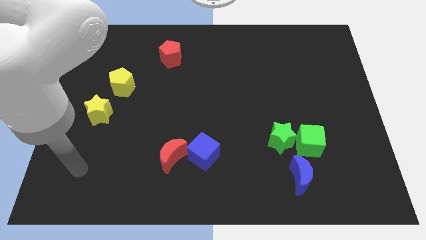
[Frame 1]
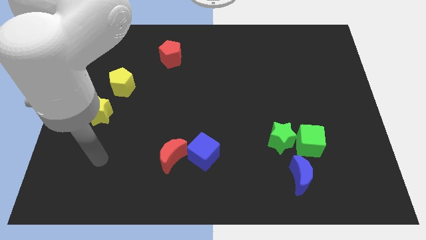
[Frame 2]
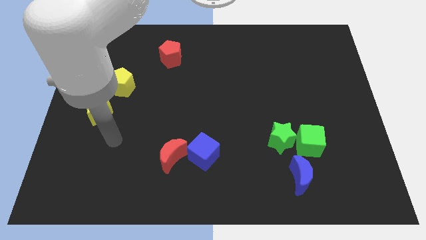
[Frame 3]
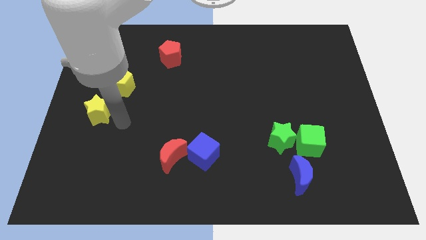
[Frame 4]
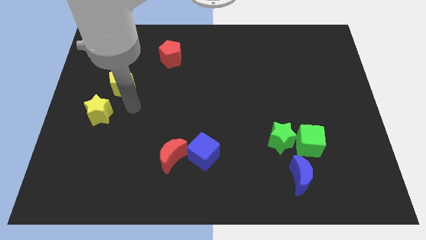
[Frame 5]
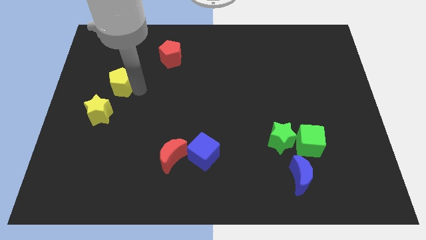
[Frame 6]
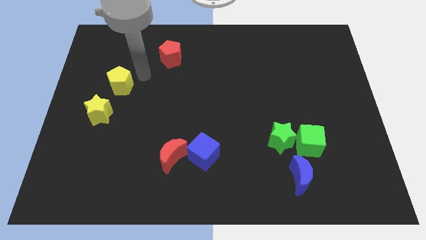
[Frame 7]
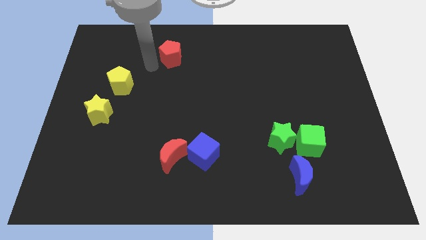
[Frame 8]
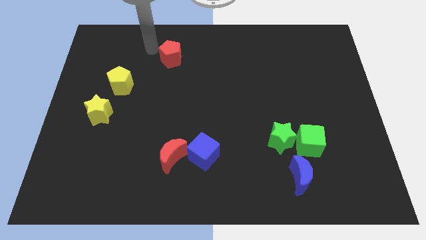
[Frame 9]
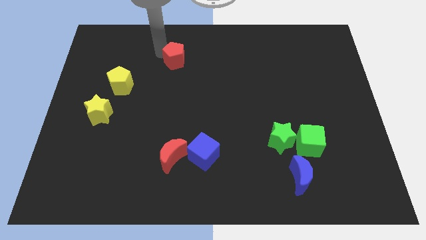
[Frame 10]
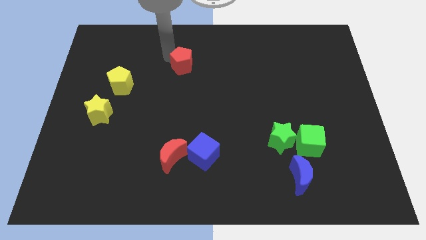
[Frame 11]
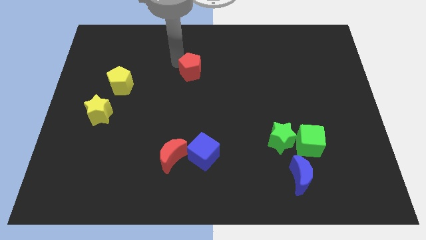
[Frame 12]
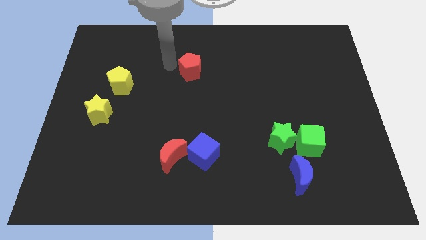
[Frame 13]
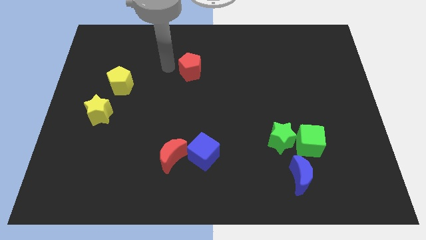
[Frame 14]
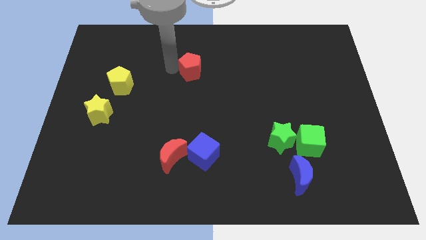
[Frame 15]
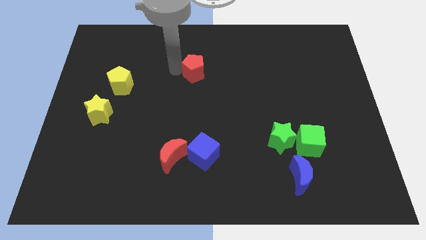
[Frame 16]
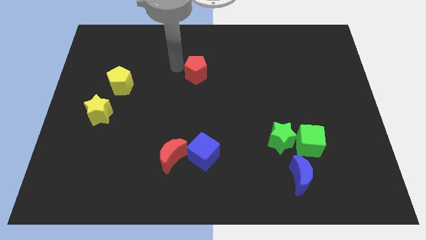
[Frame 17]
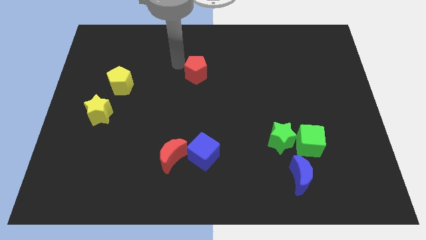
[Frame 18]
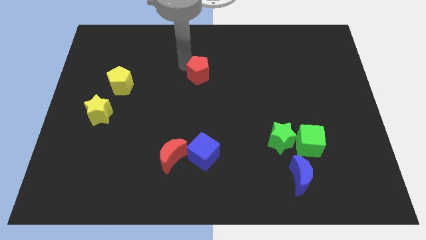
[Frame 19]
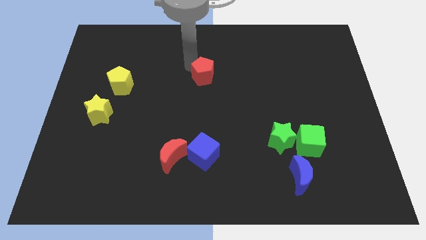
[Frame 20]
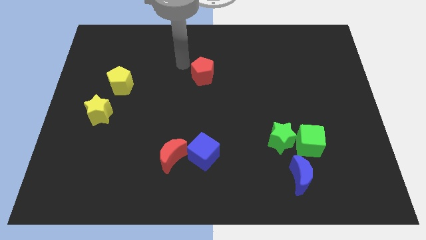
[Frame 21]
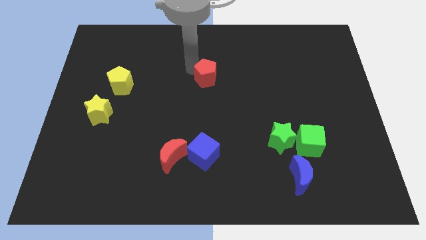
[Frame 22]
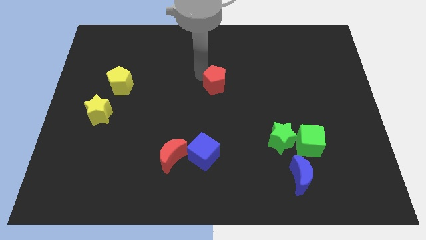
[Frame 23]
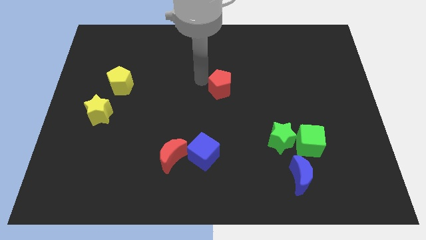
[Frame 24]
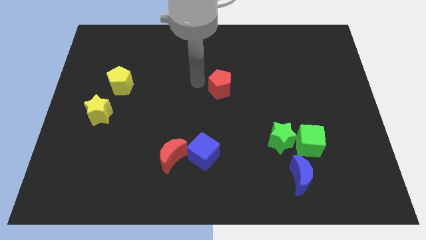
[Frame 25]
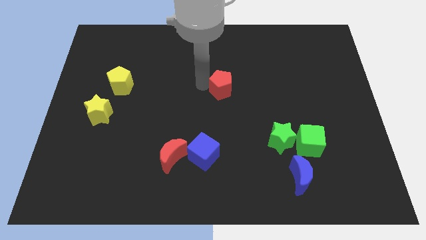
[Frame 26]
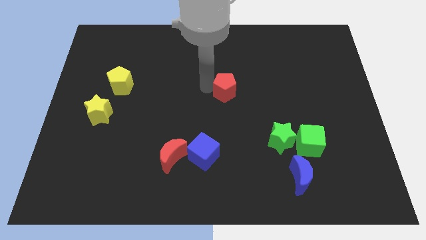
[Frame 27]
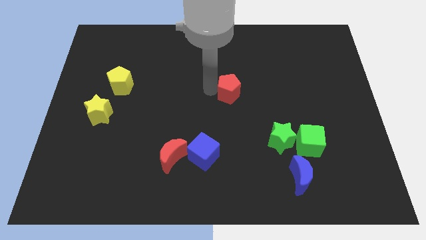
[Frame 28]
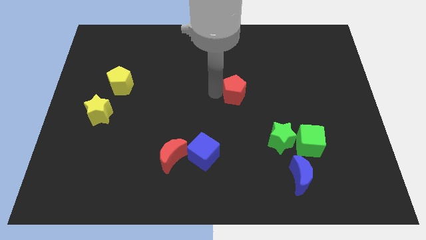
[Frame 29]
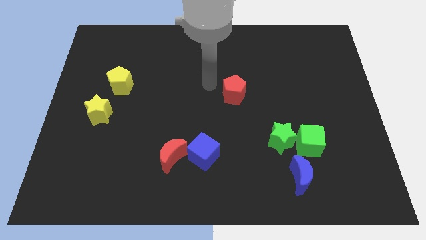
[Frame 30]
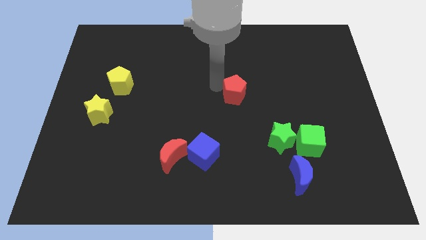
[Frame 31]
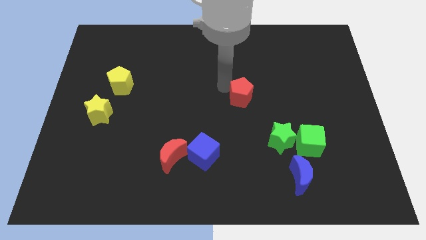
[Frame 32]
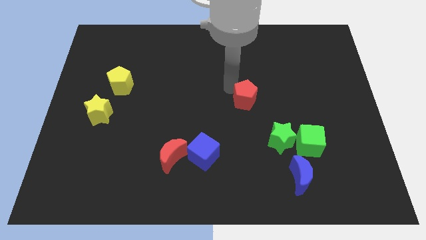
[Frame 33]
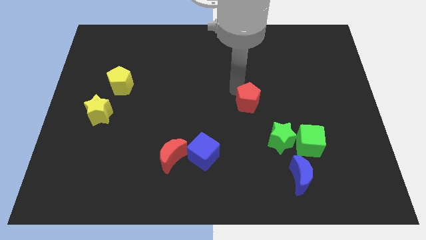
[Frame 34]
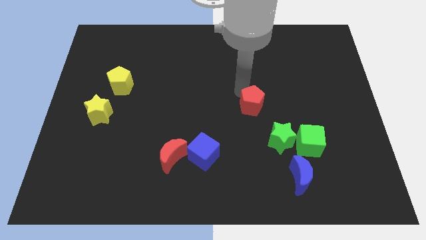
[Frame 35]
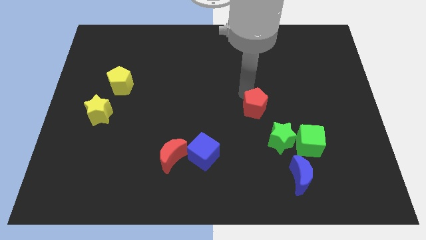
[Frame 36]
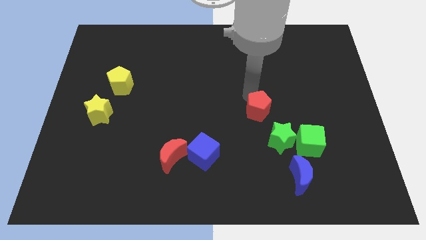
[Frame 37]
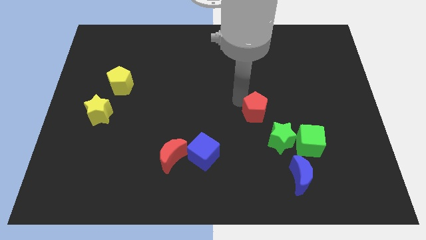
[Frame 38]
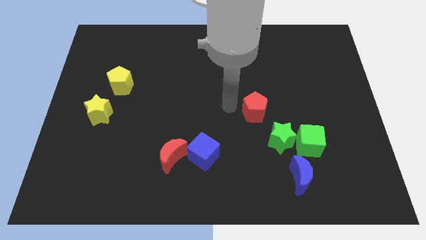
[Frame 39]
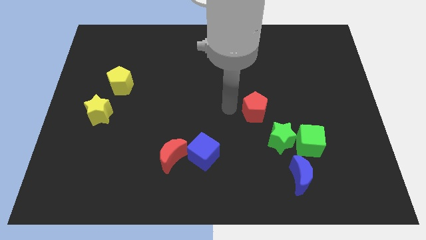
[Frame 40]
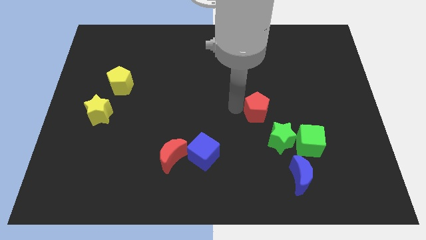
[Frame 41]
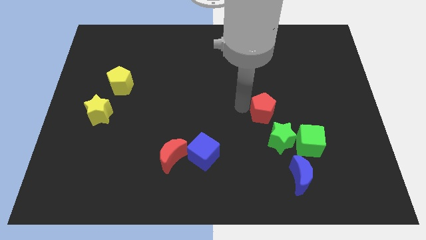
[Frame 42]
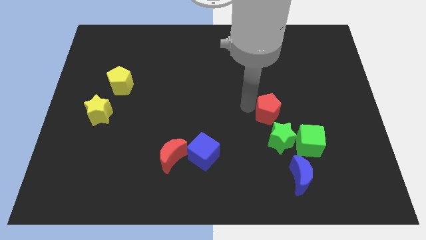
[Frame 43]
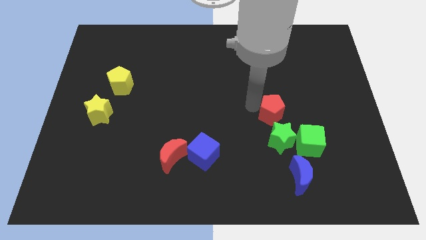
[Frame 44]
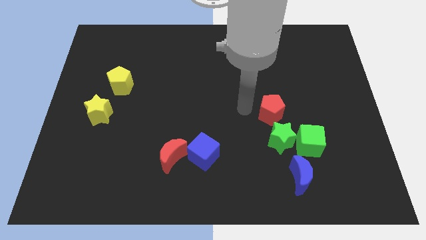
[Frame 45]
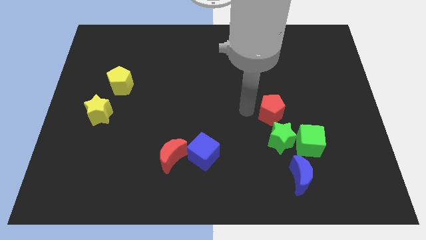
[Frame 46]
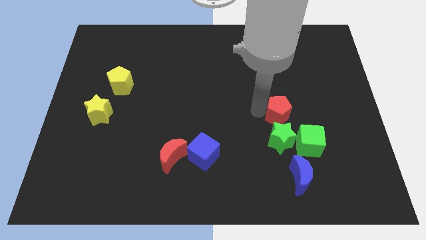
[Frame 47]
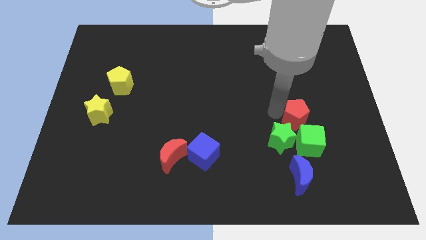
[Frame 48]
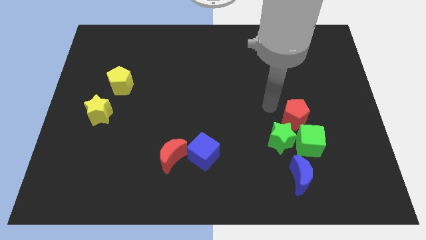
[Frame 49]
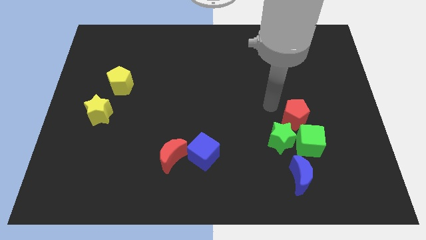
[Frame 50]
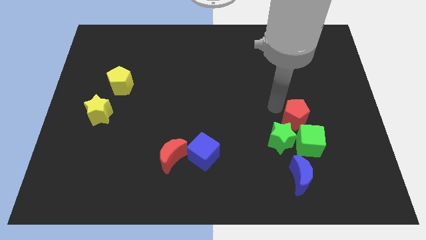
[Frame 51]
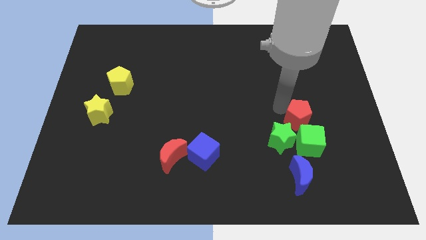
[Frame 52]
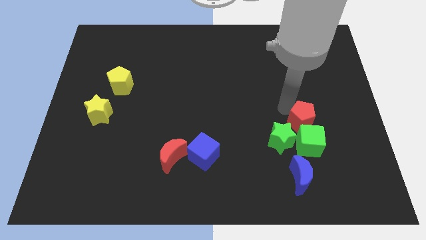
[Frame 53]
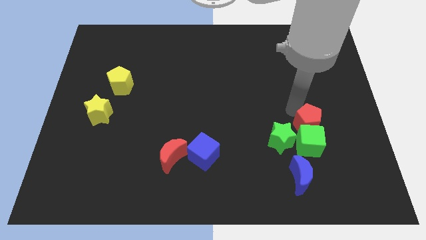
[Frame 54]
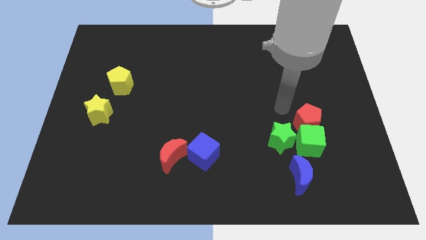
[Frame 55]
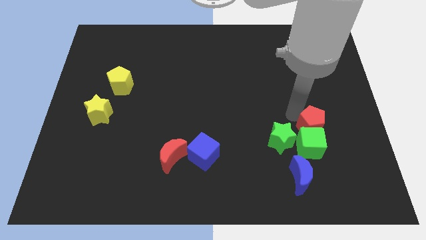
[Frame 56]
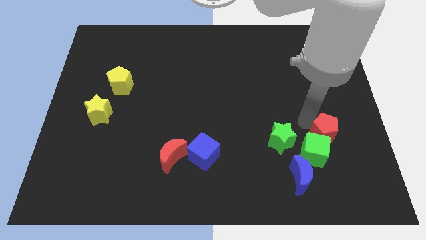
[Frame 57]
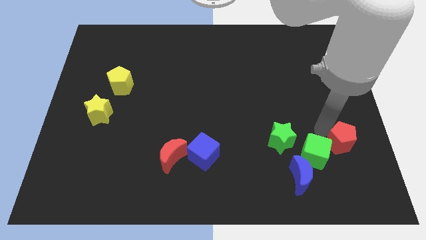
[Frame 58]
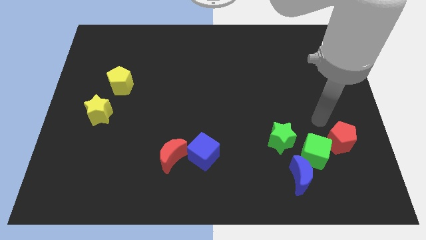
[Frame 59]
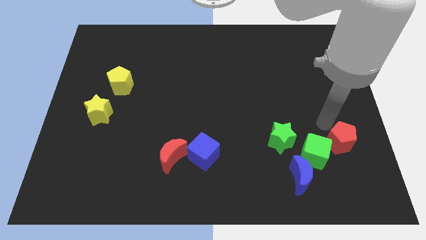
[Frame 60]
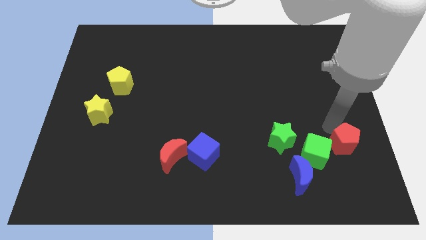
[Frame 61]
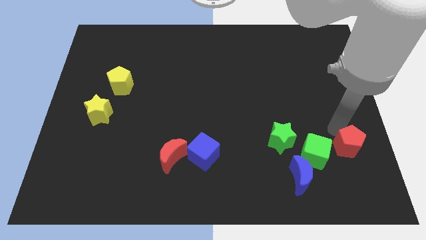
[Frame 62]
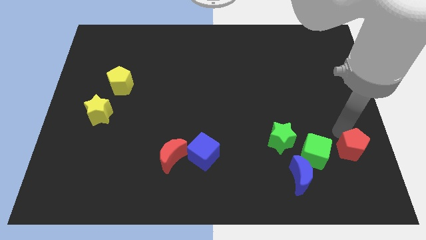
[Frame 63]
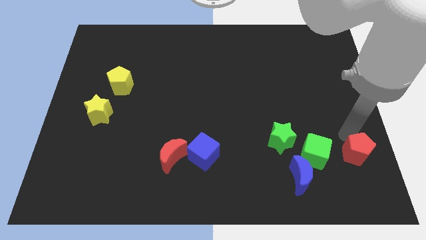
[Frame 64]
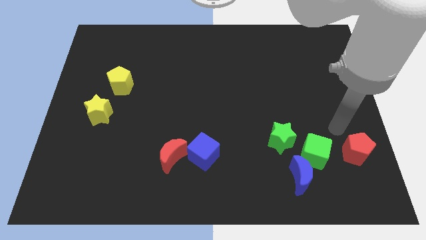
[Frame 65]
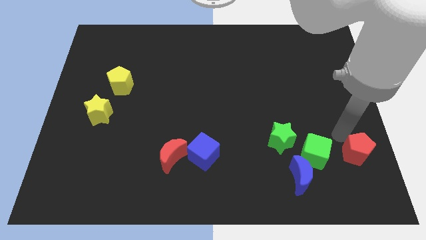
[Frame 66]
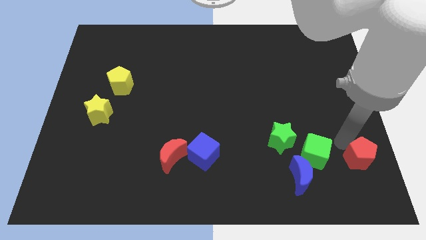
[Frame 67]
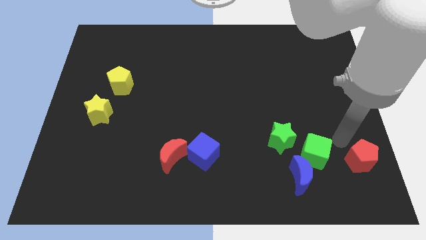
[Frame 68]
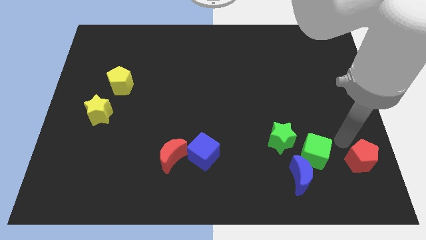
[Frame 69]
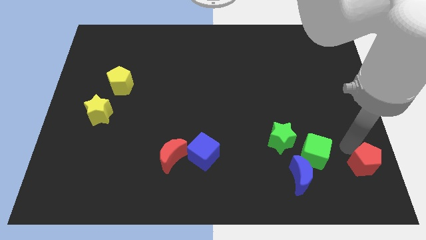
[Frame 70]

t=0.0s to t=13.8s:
put the red pentagon to the bottom right corner
